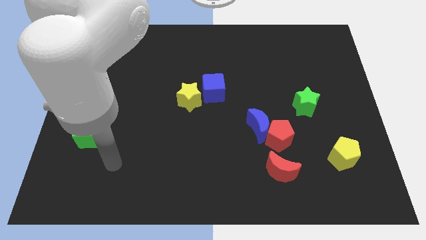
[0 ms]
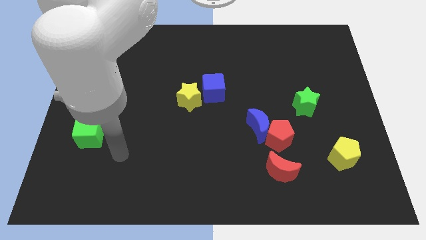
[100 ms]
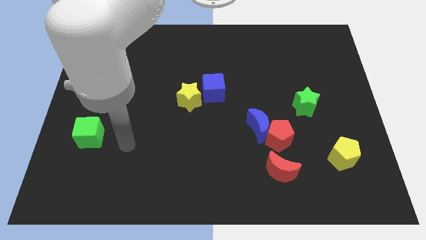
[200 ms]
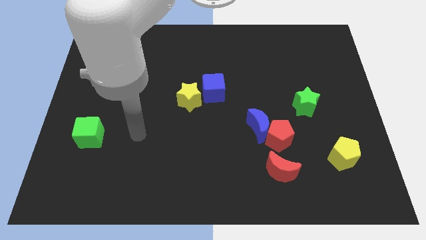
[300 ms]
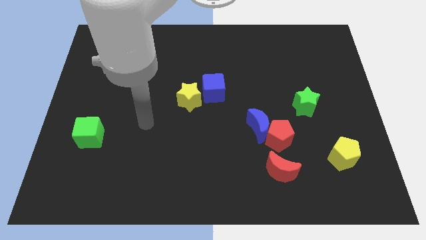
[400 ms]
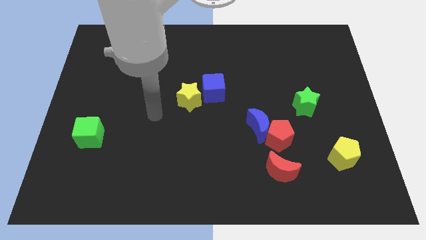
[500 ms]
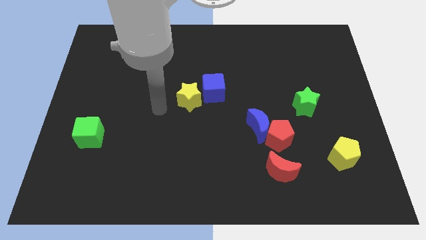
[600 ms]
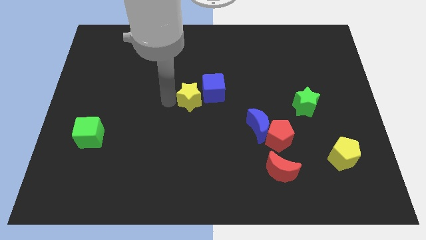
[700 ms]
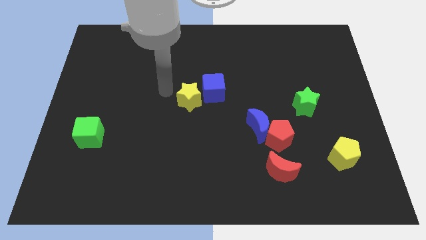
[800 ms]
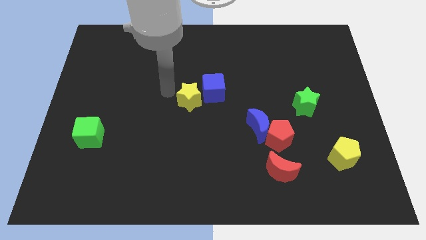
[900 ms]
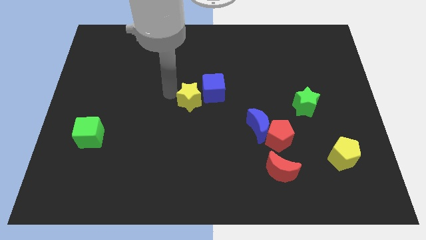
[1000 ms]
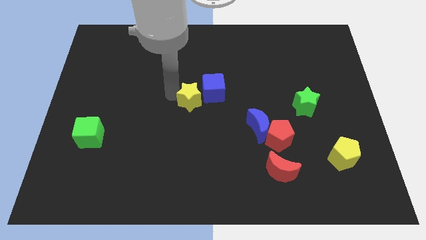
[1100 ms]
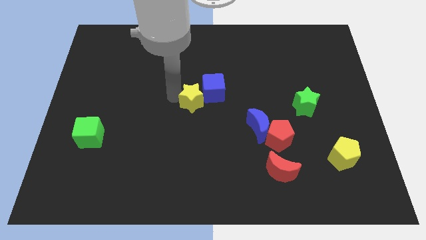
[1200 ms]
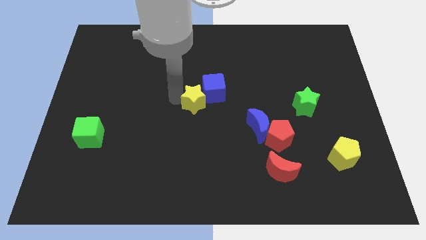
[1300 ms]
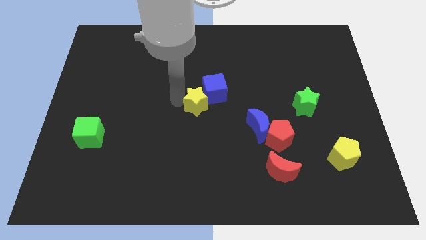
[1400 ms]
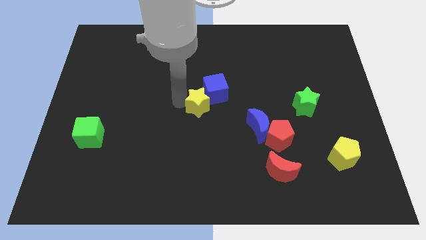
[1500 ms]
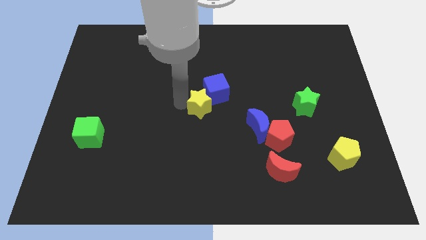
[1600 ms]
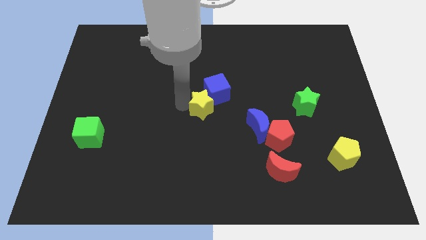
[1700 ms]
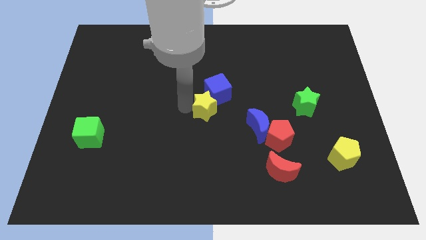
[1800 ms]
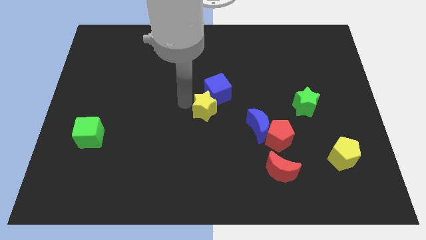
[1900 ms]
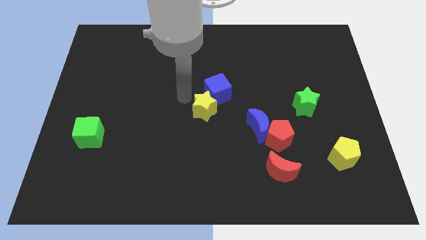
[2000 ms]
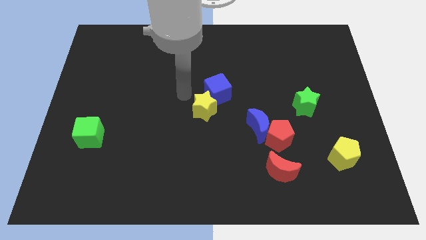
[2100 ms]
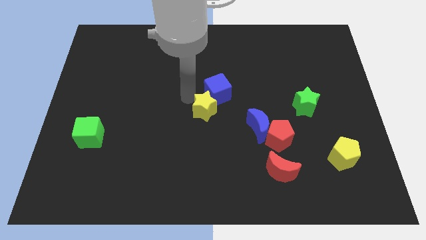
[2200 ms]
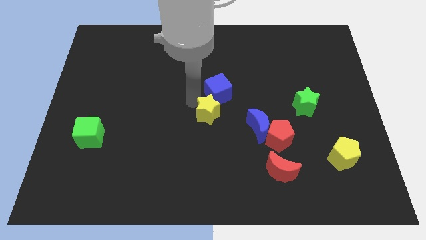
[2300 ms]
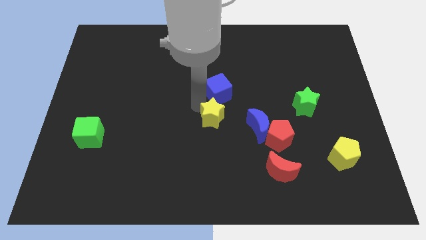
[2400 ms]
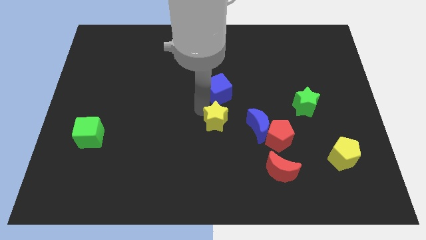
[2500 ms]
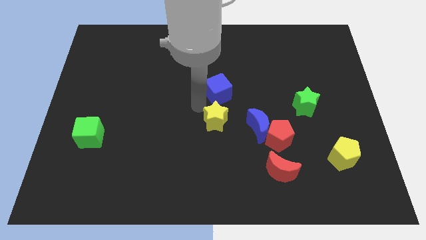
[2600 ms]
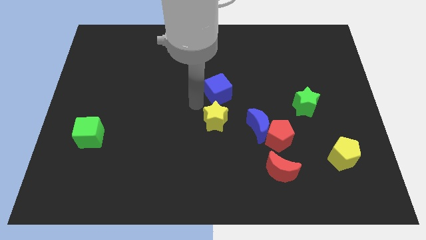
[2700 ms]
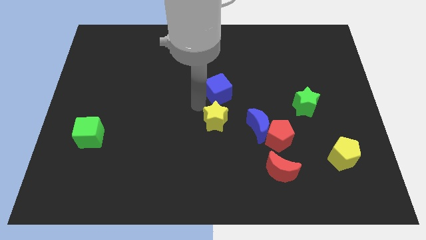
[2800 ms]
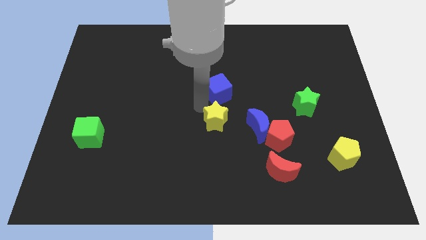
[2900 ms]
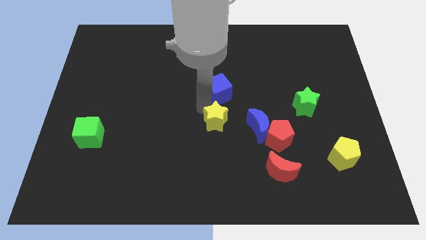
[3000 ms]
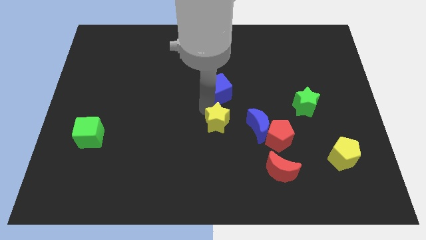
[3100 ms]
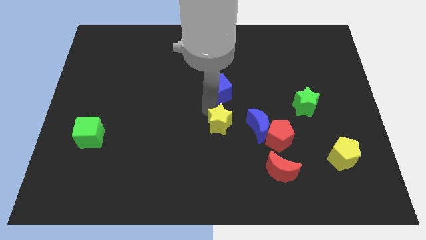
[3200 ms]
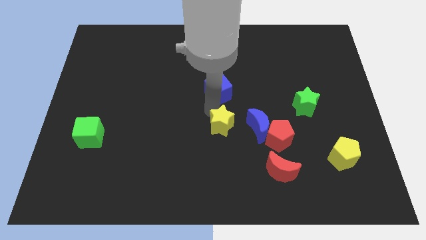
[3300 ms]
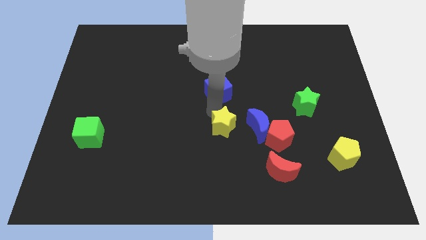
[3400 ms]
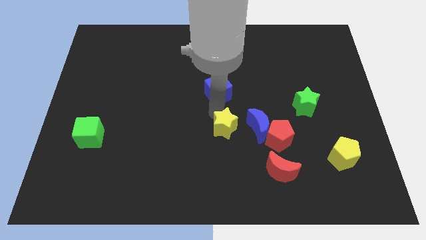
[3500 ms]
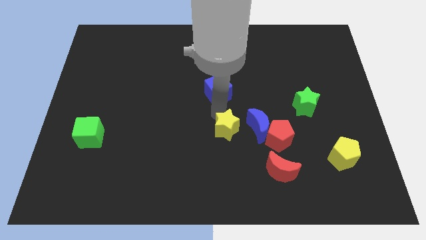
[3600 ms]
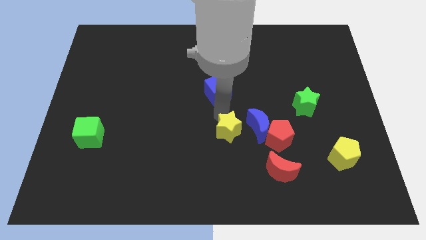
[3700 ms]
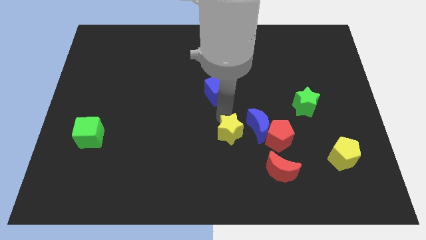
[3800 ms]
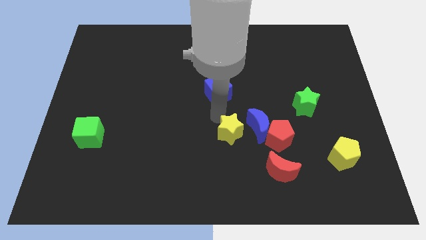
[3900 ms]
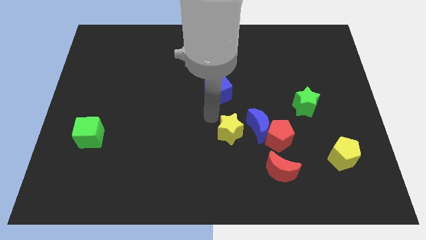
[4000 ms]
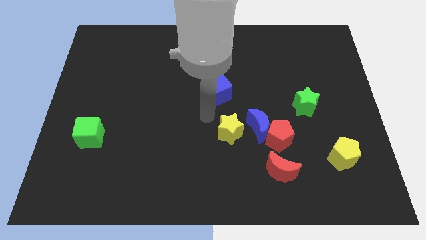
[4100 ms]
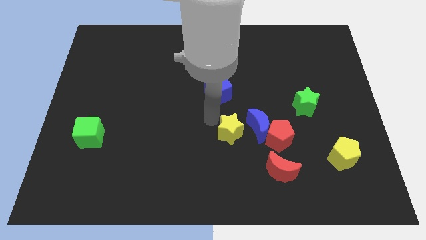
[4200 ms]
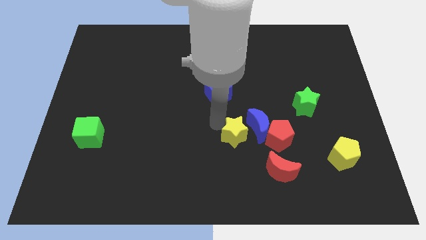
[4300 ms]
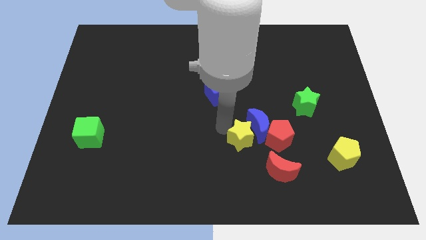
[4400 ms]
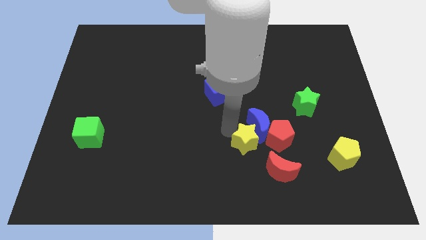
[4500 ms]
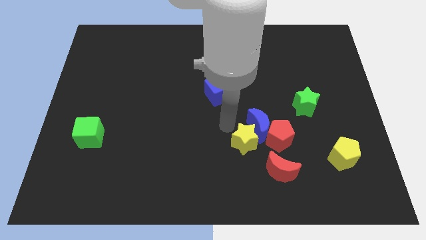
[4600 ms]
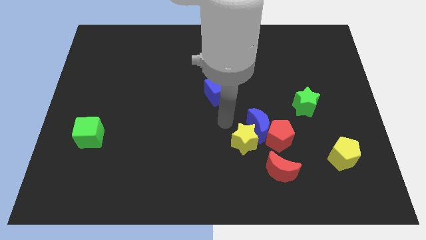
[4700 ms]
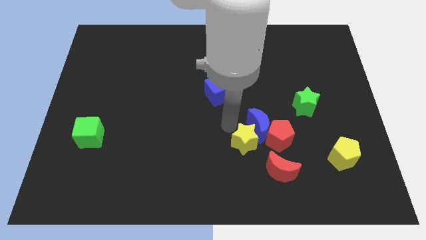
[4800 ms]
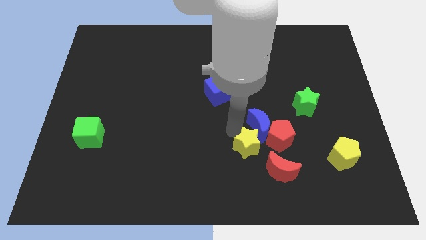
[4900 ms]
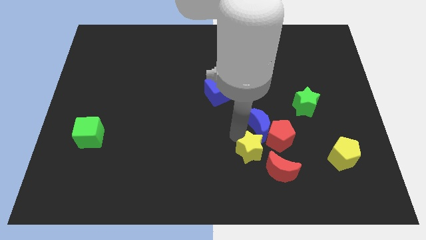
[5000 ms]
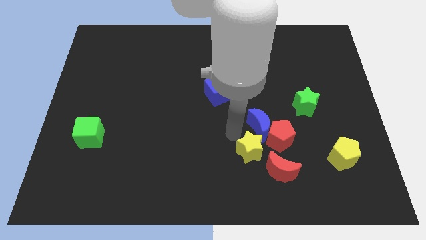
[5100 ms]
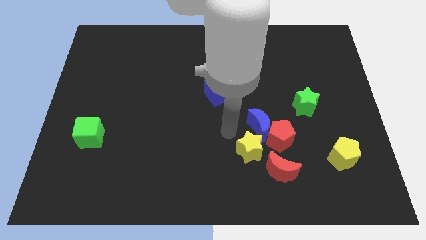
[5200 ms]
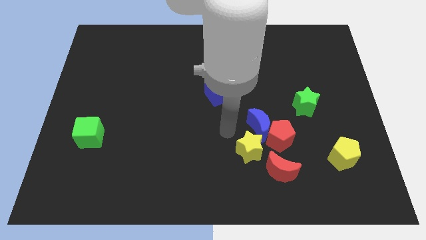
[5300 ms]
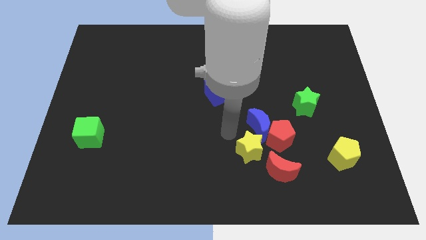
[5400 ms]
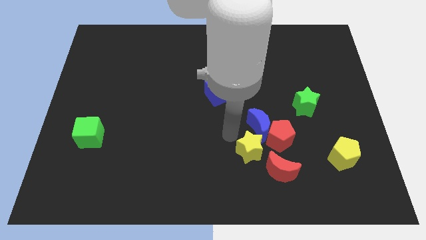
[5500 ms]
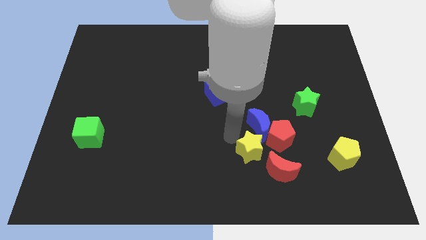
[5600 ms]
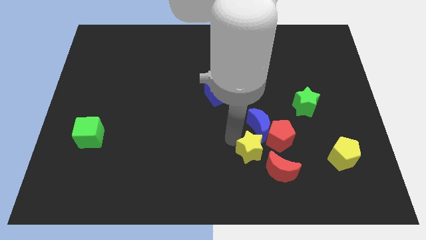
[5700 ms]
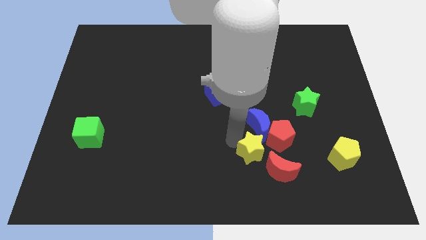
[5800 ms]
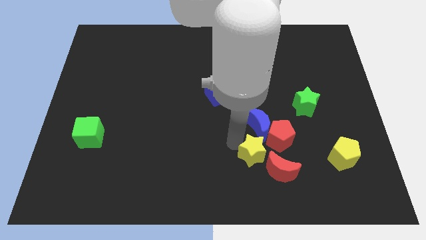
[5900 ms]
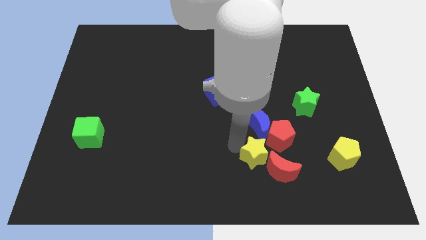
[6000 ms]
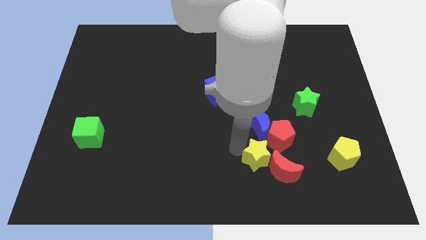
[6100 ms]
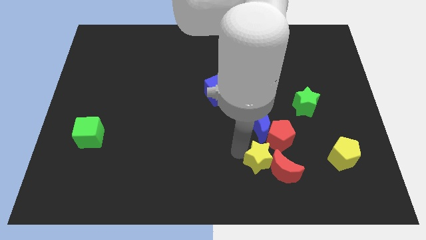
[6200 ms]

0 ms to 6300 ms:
push the yellow star next to the red moon

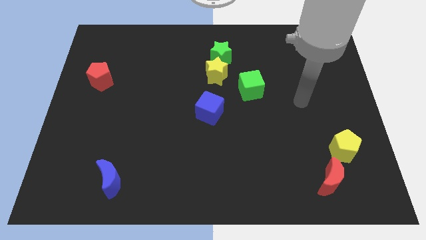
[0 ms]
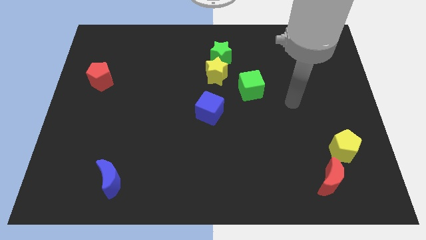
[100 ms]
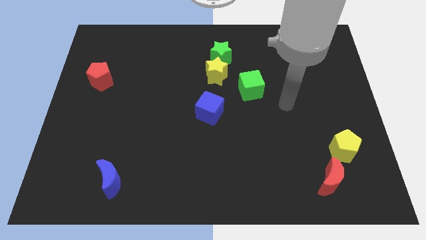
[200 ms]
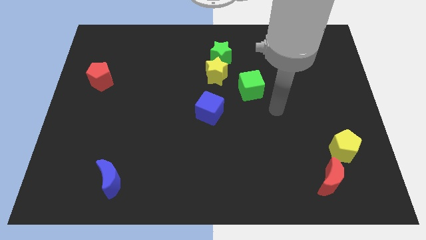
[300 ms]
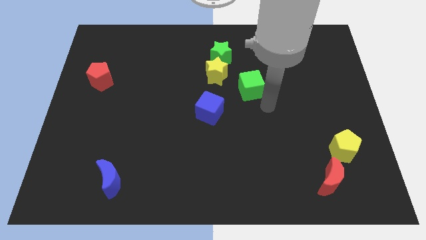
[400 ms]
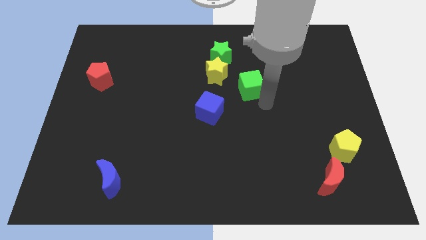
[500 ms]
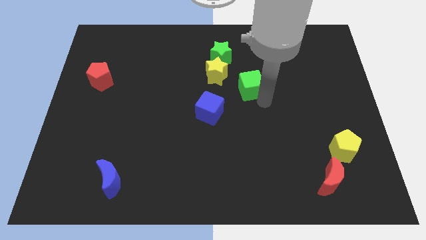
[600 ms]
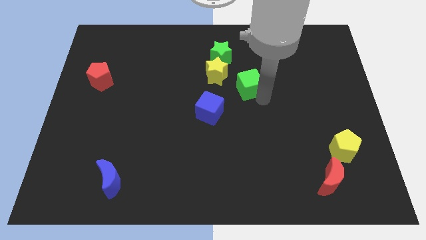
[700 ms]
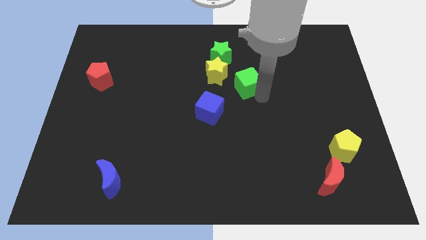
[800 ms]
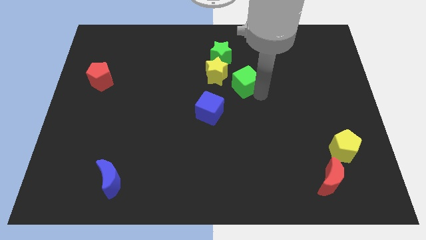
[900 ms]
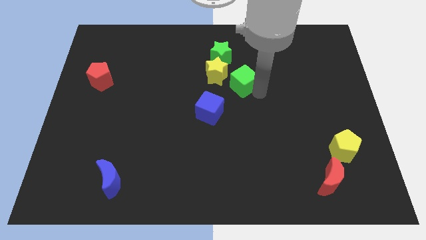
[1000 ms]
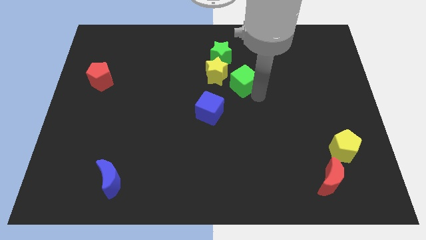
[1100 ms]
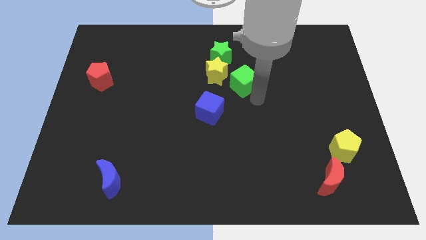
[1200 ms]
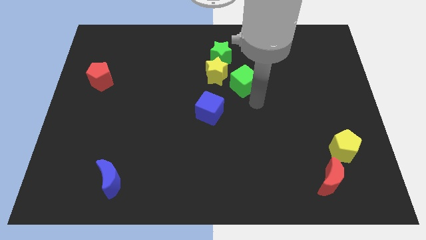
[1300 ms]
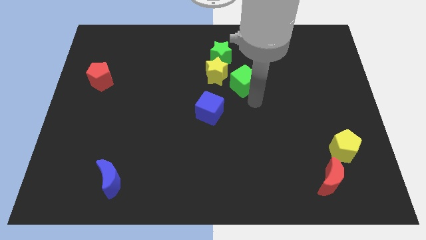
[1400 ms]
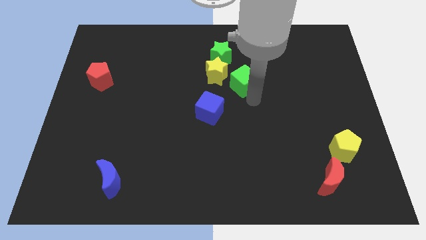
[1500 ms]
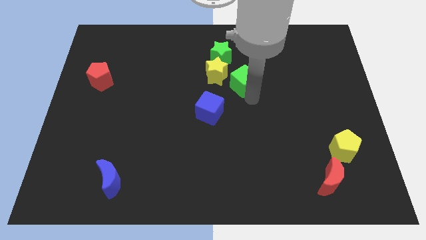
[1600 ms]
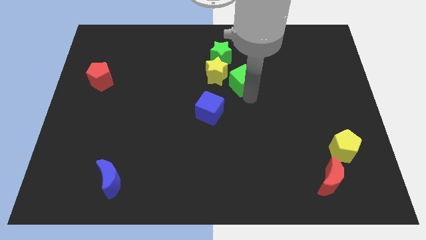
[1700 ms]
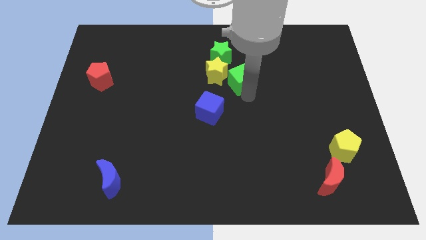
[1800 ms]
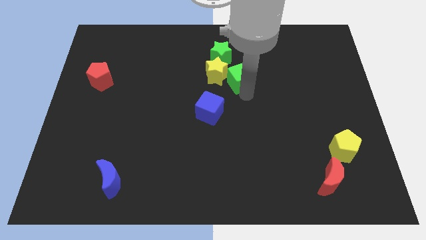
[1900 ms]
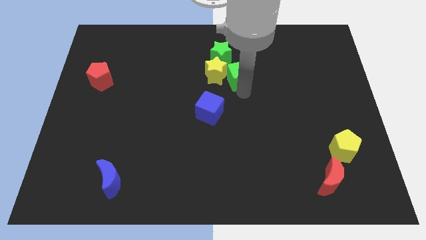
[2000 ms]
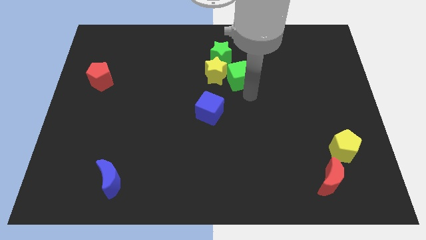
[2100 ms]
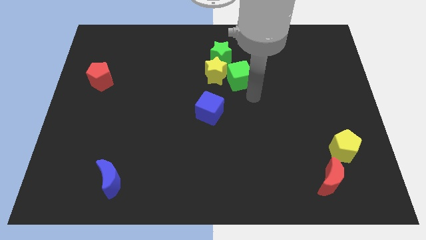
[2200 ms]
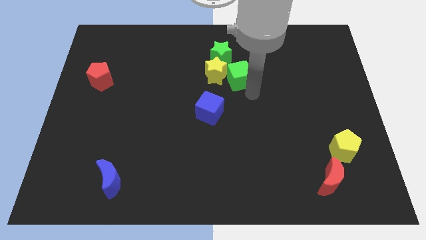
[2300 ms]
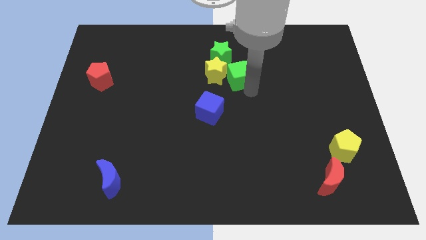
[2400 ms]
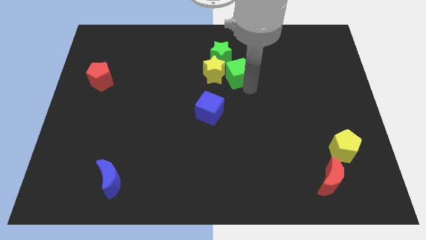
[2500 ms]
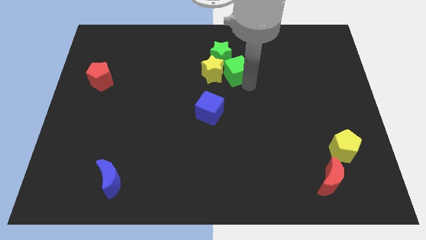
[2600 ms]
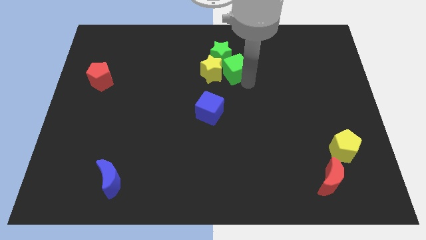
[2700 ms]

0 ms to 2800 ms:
slide the green cube towards the green star
